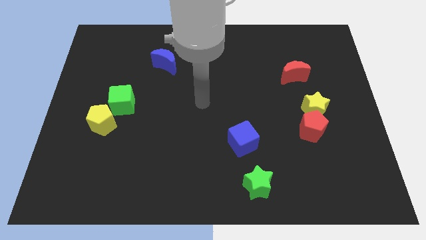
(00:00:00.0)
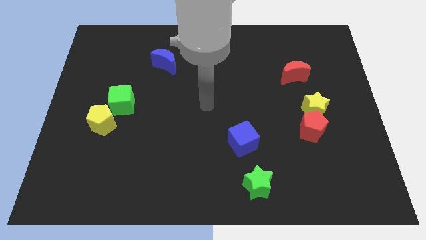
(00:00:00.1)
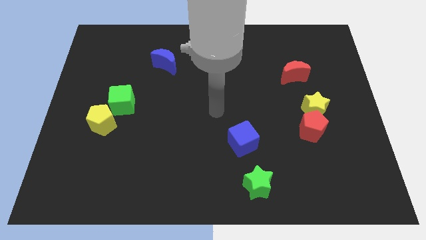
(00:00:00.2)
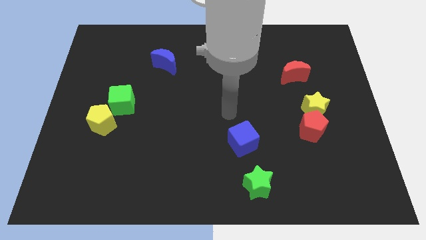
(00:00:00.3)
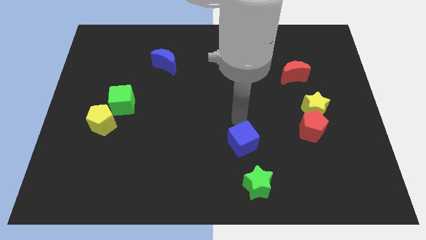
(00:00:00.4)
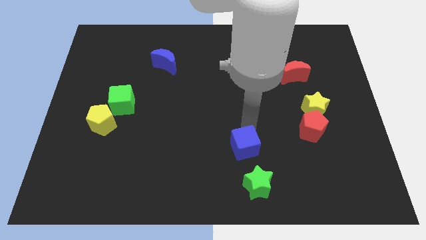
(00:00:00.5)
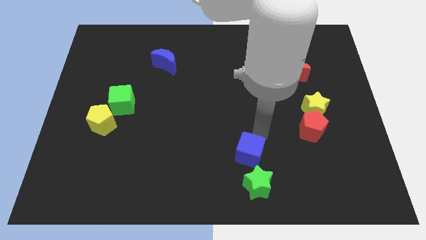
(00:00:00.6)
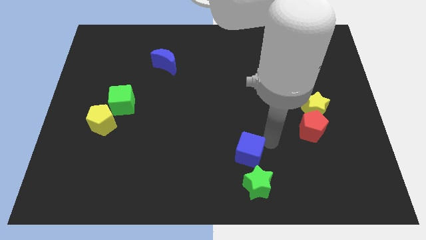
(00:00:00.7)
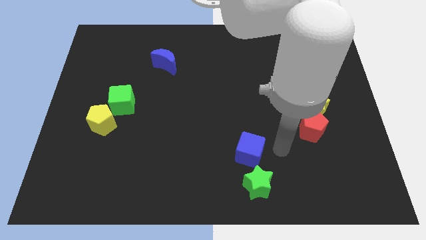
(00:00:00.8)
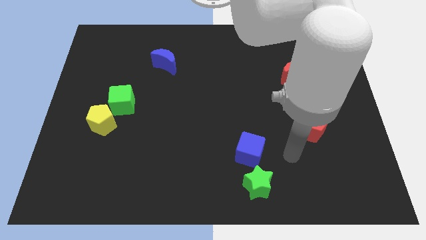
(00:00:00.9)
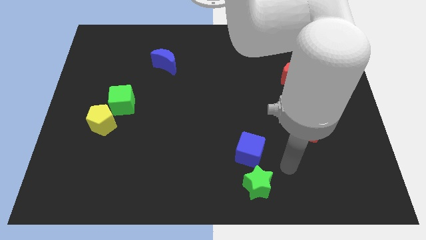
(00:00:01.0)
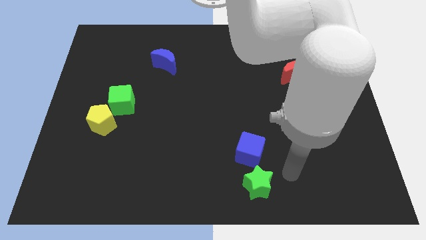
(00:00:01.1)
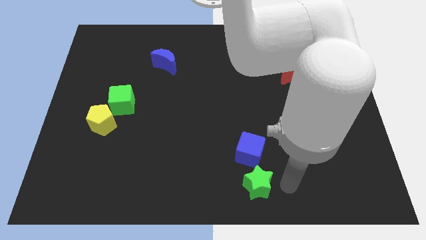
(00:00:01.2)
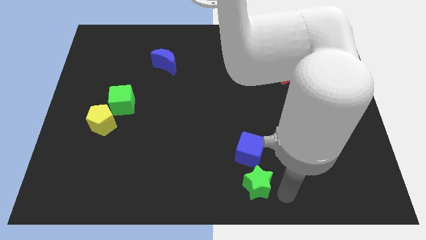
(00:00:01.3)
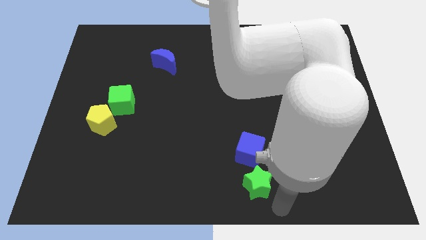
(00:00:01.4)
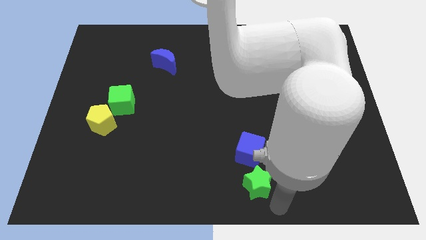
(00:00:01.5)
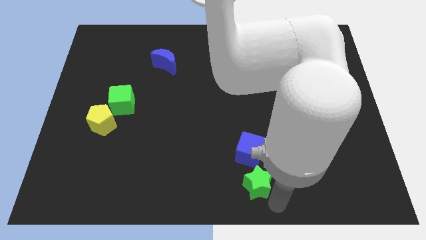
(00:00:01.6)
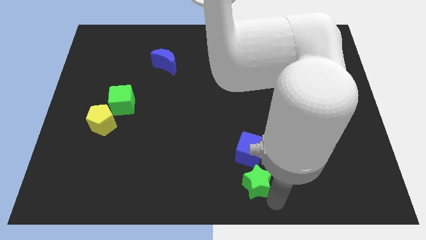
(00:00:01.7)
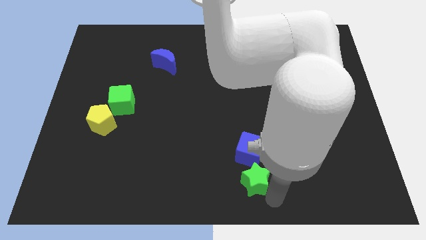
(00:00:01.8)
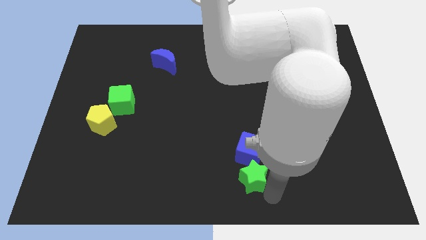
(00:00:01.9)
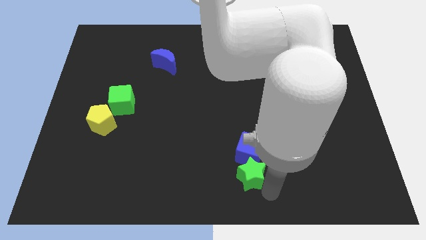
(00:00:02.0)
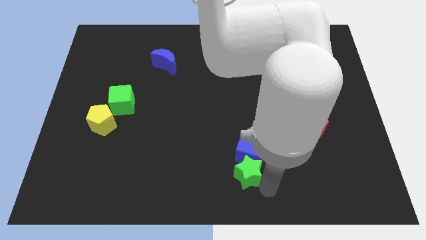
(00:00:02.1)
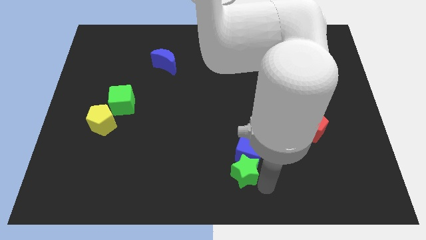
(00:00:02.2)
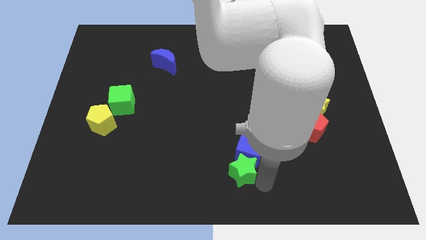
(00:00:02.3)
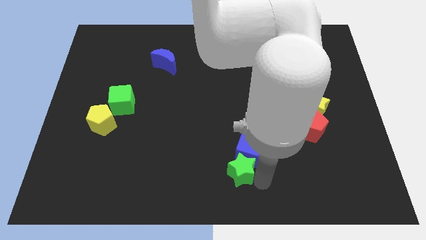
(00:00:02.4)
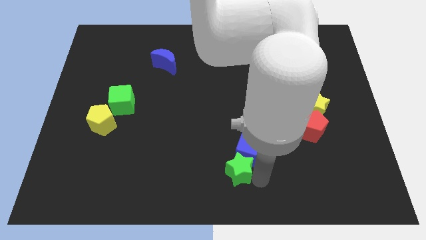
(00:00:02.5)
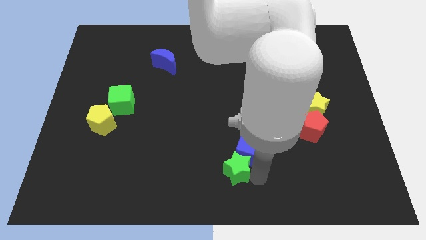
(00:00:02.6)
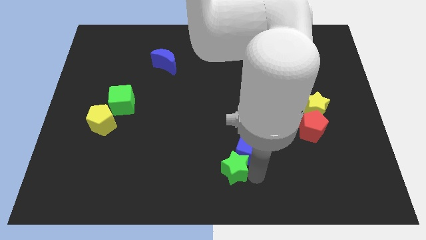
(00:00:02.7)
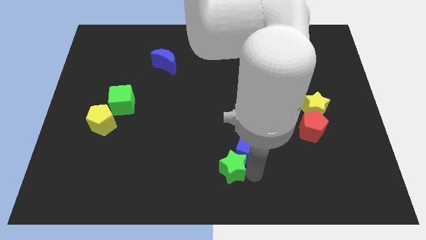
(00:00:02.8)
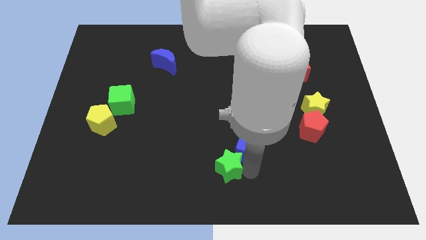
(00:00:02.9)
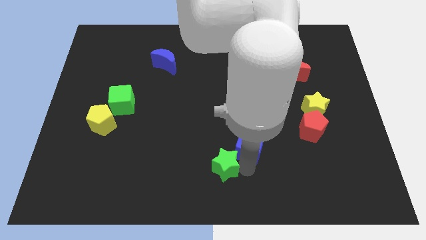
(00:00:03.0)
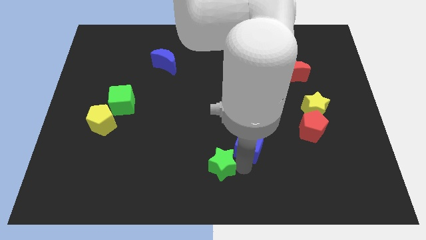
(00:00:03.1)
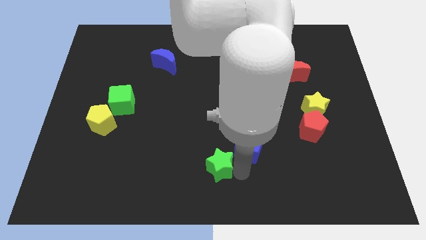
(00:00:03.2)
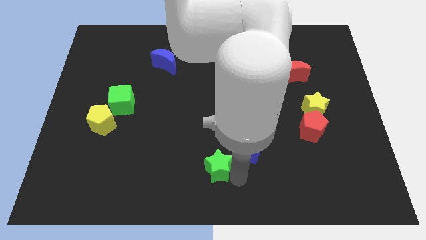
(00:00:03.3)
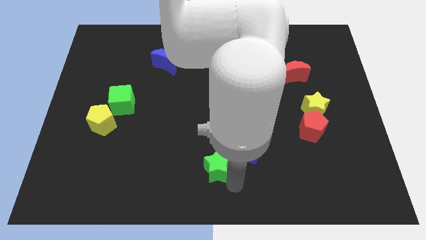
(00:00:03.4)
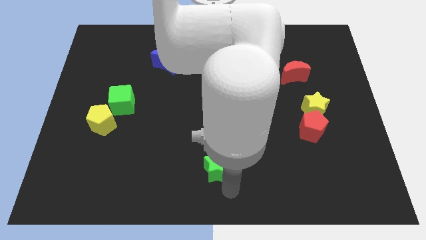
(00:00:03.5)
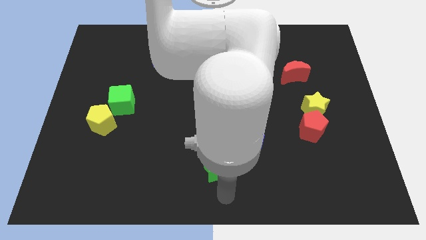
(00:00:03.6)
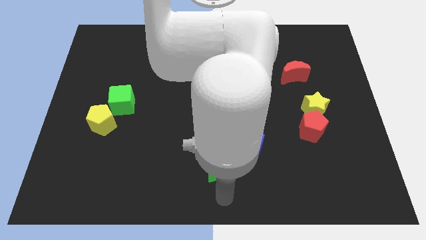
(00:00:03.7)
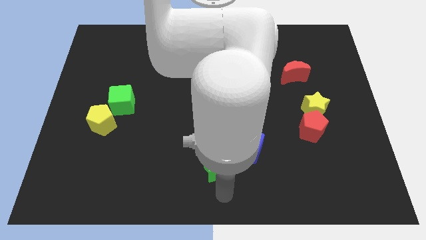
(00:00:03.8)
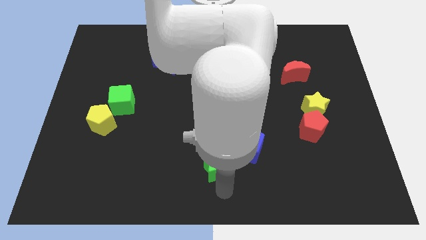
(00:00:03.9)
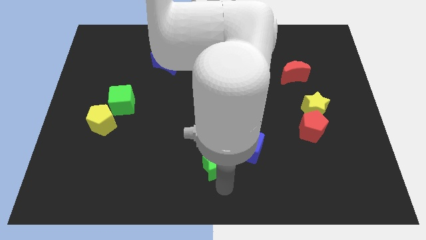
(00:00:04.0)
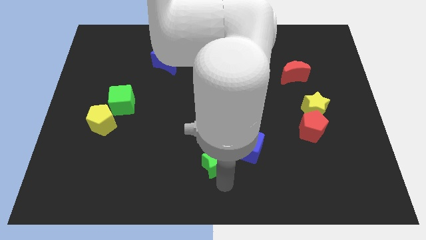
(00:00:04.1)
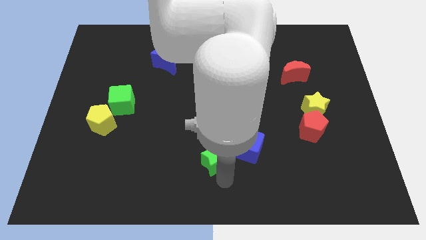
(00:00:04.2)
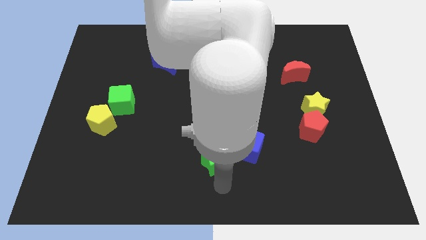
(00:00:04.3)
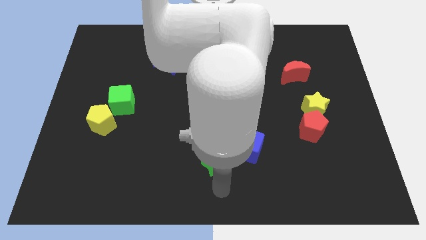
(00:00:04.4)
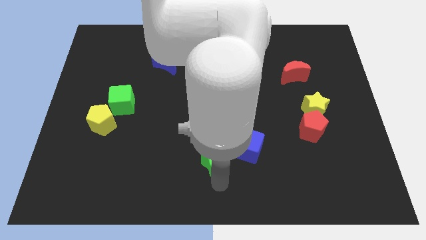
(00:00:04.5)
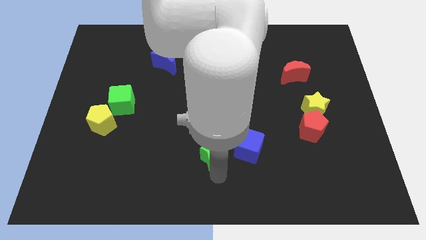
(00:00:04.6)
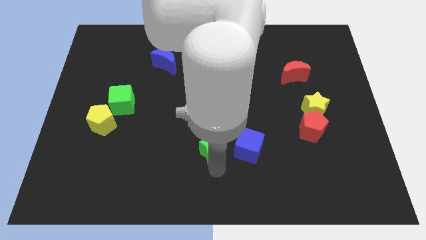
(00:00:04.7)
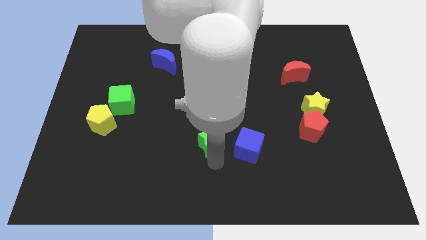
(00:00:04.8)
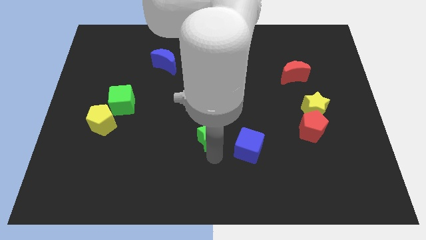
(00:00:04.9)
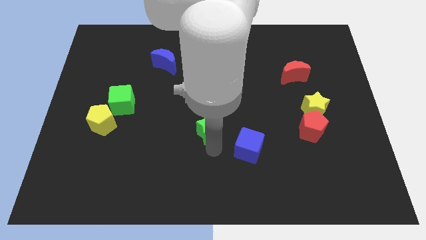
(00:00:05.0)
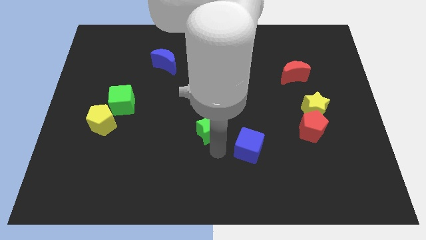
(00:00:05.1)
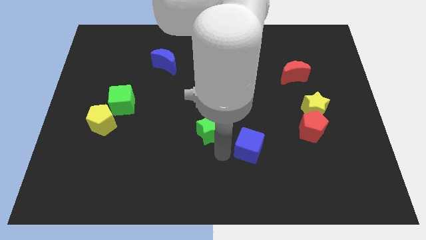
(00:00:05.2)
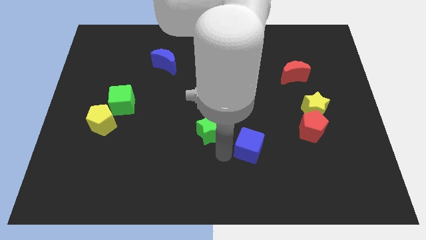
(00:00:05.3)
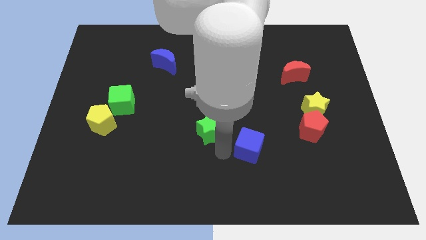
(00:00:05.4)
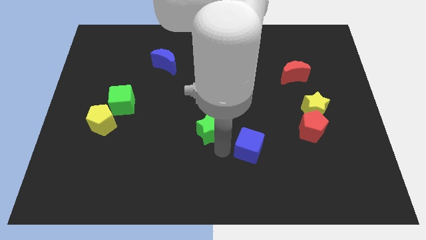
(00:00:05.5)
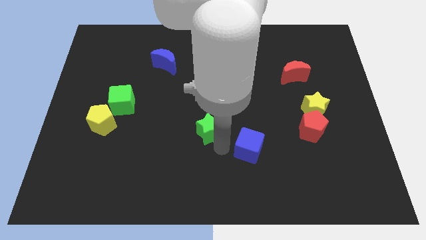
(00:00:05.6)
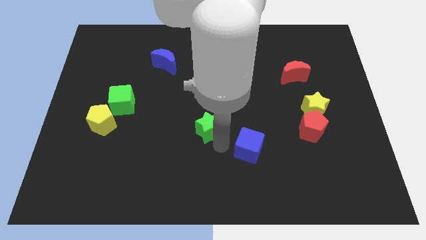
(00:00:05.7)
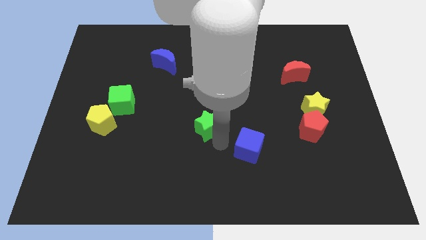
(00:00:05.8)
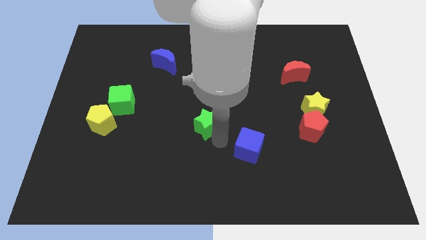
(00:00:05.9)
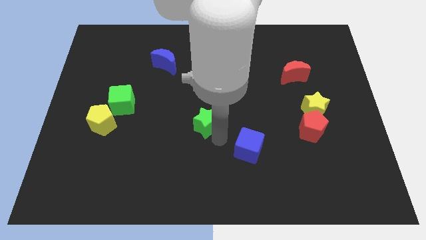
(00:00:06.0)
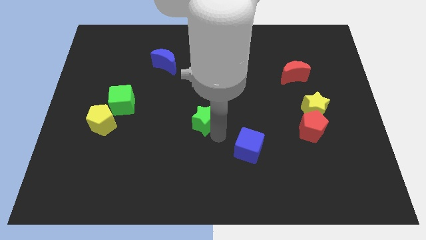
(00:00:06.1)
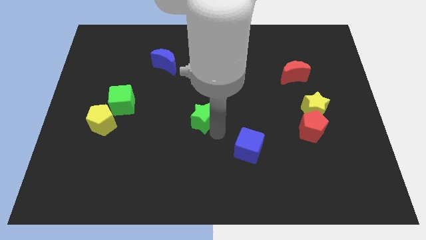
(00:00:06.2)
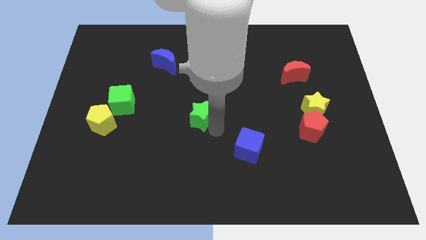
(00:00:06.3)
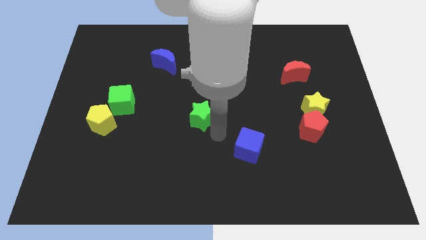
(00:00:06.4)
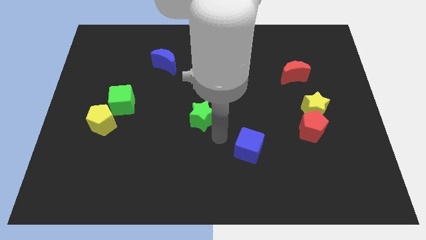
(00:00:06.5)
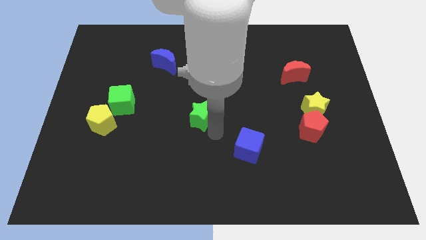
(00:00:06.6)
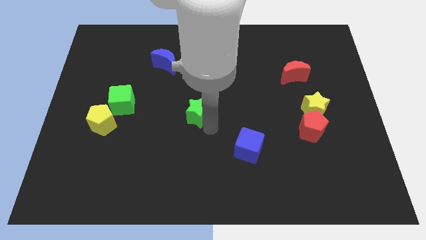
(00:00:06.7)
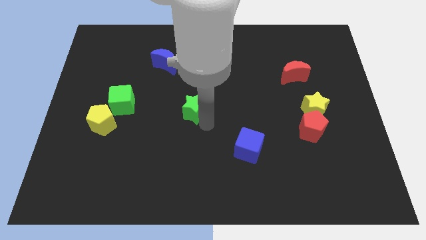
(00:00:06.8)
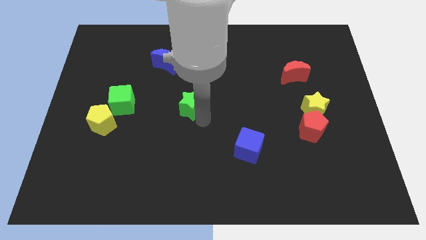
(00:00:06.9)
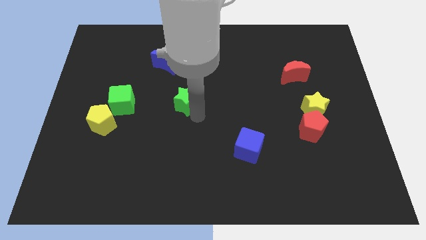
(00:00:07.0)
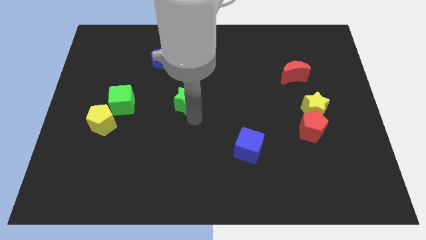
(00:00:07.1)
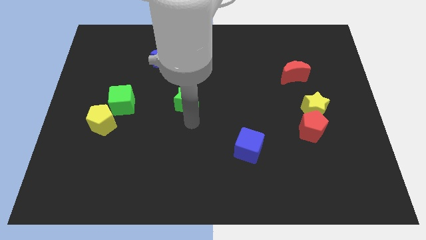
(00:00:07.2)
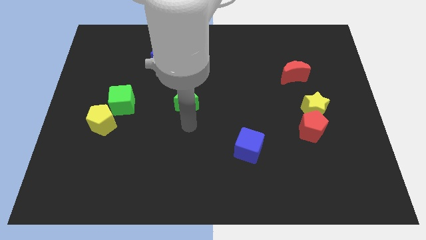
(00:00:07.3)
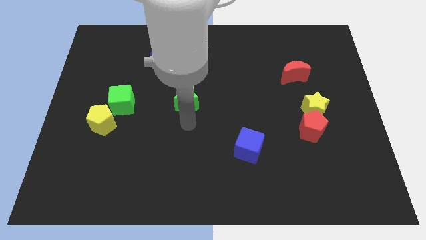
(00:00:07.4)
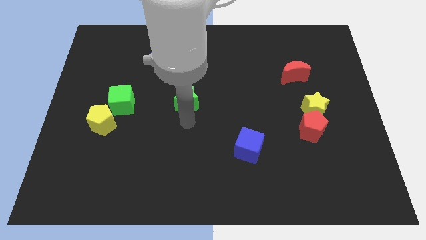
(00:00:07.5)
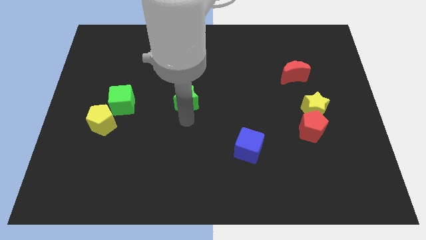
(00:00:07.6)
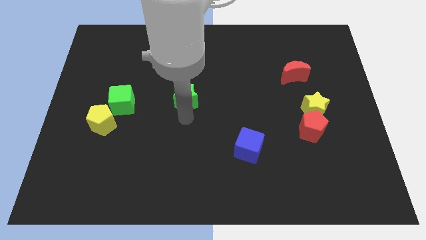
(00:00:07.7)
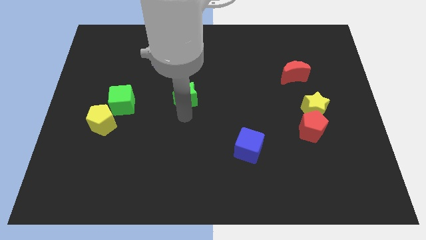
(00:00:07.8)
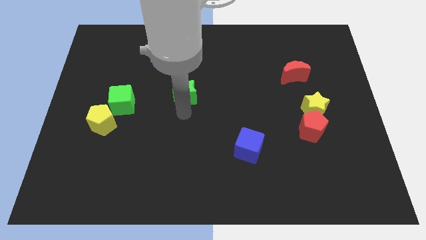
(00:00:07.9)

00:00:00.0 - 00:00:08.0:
slide the green star diagonally down and to the right of the blue moon

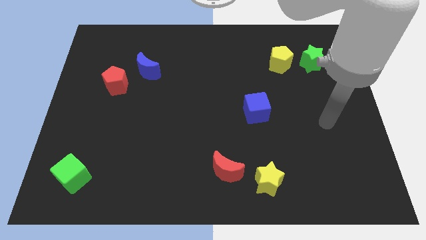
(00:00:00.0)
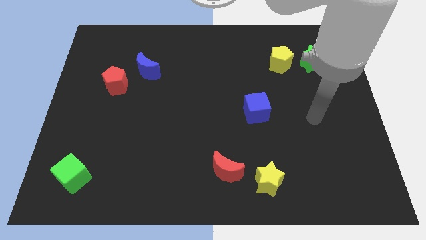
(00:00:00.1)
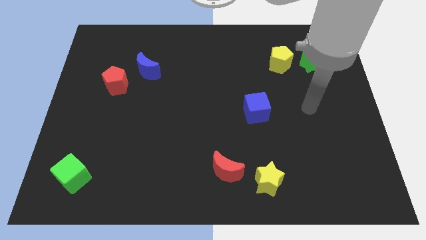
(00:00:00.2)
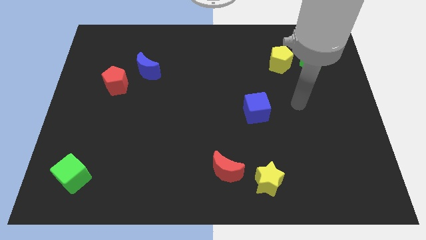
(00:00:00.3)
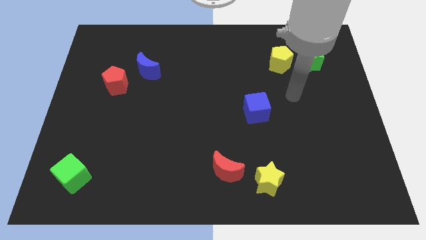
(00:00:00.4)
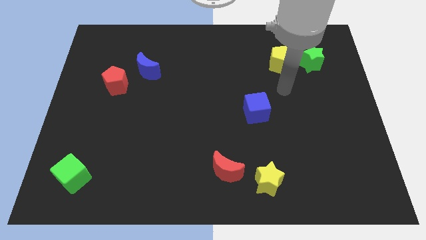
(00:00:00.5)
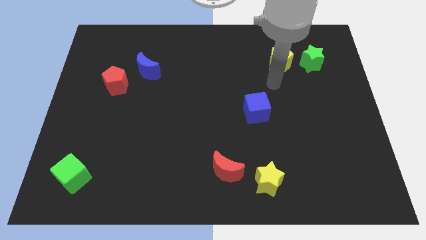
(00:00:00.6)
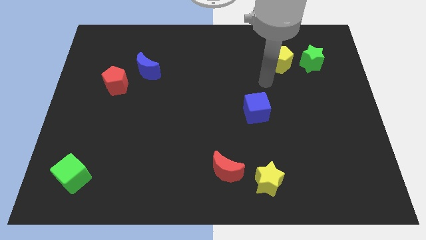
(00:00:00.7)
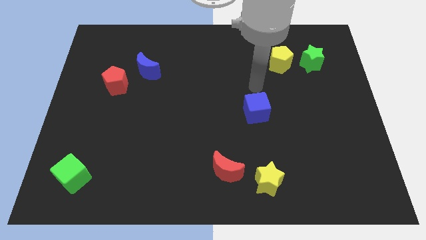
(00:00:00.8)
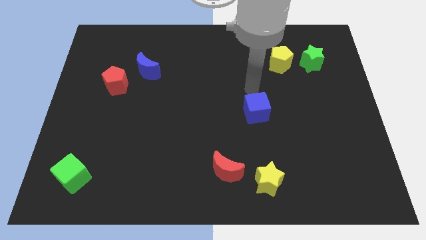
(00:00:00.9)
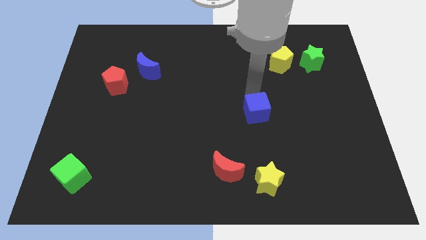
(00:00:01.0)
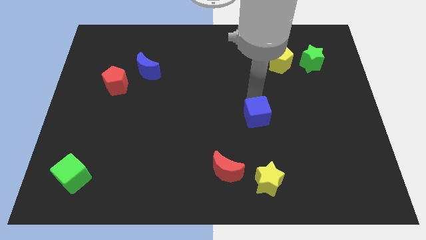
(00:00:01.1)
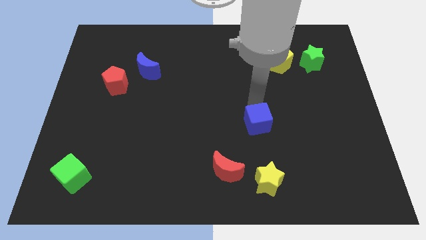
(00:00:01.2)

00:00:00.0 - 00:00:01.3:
put the blue cube to the top of the yellow star
